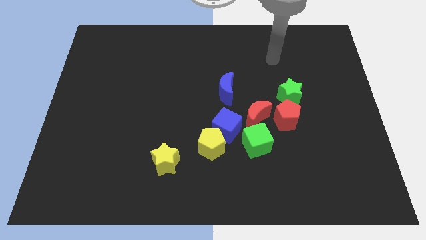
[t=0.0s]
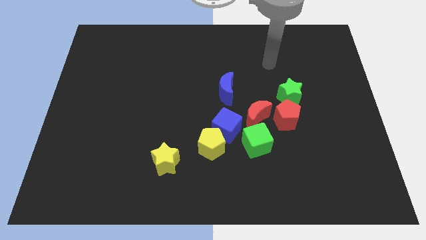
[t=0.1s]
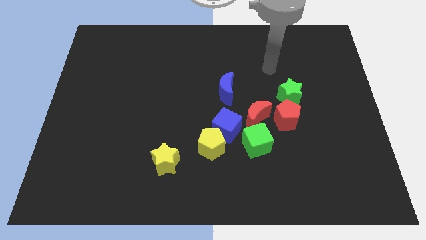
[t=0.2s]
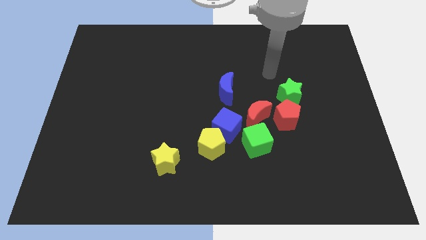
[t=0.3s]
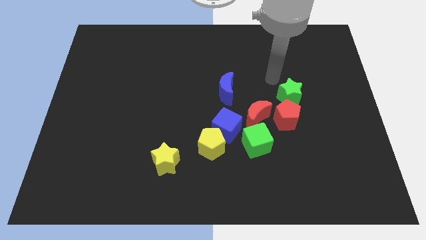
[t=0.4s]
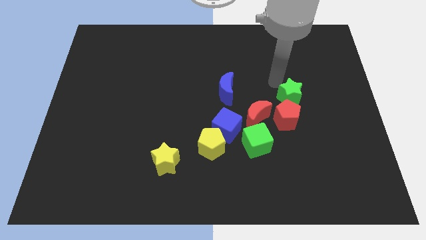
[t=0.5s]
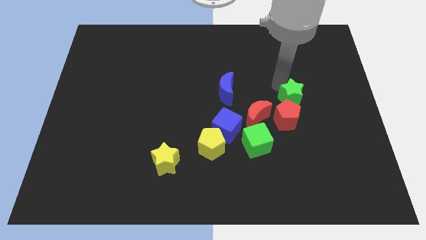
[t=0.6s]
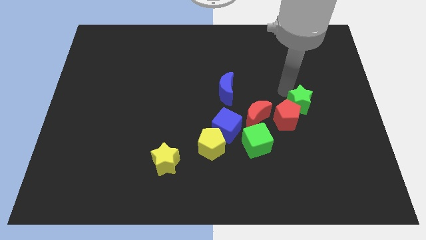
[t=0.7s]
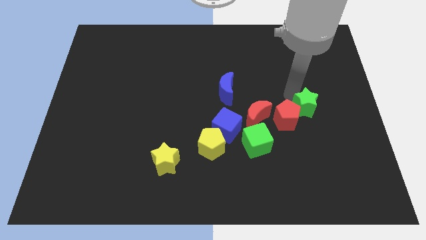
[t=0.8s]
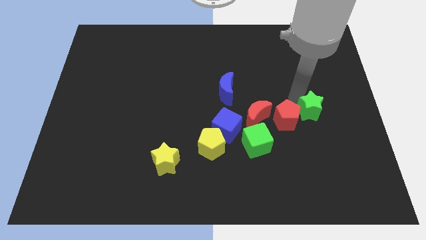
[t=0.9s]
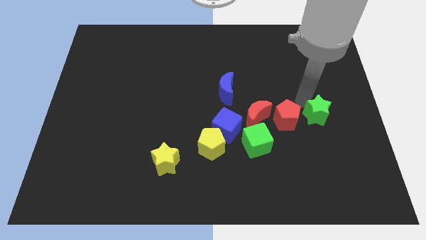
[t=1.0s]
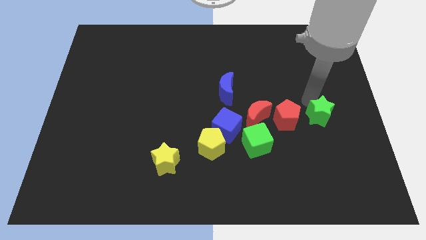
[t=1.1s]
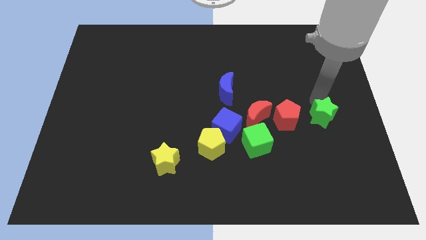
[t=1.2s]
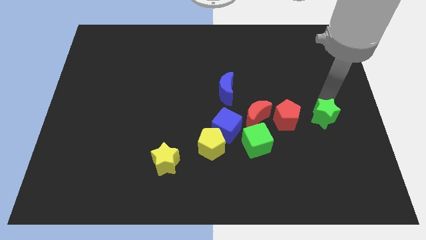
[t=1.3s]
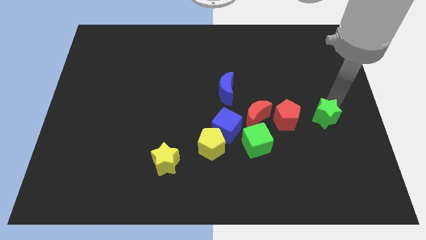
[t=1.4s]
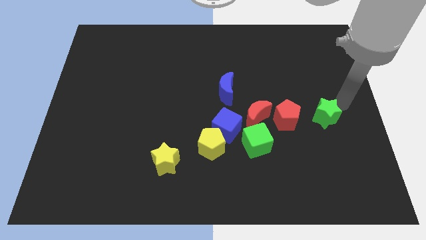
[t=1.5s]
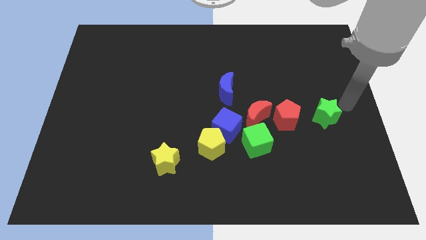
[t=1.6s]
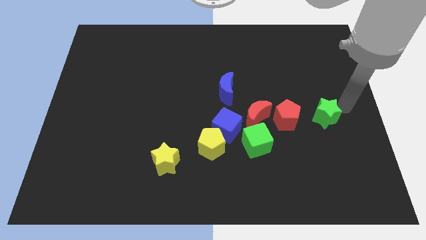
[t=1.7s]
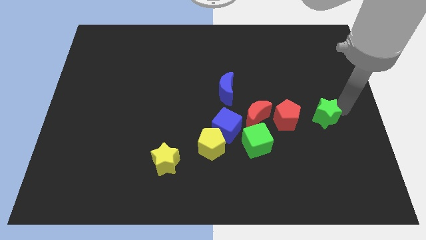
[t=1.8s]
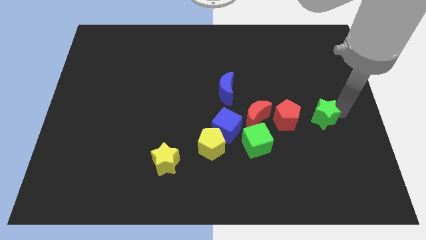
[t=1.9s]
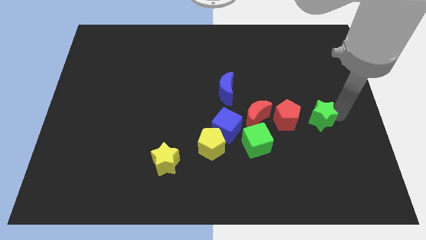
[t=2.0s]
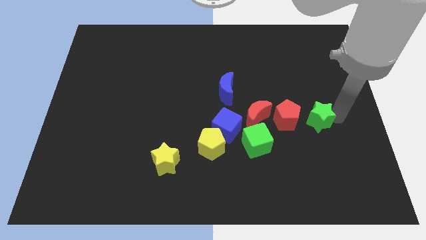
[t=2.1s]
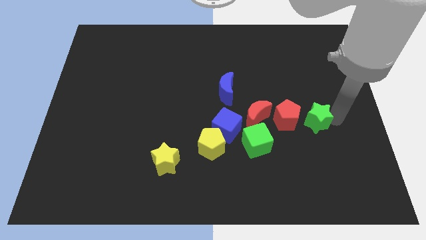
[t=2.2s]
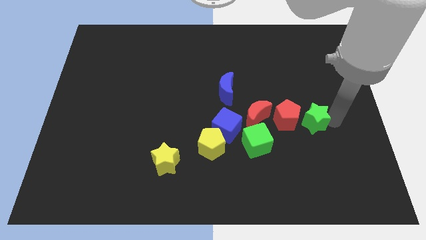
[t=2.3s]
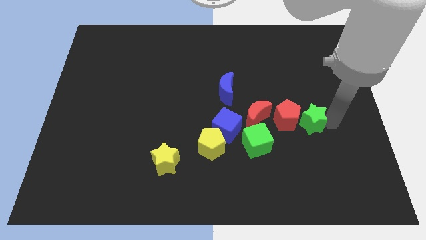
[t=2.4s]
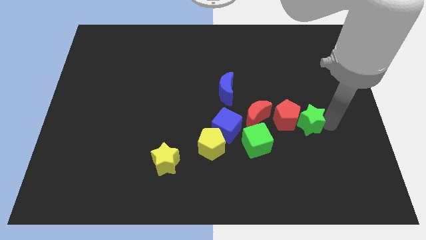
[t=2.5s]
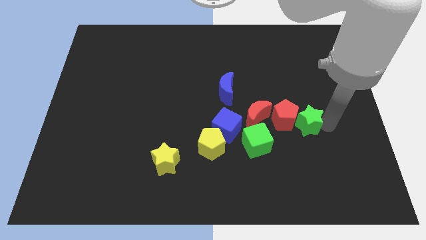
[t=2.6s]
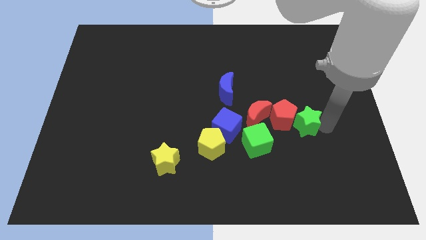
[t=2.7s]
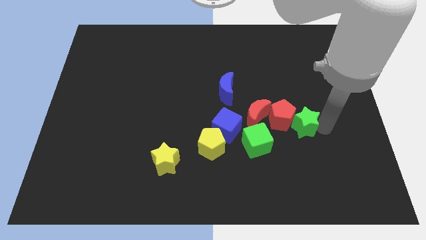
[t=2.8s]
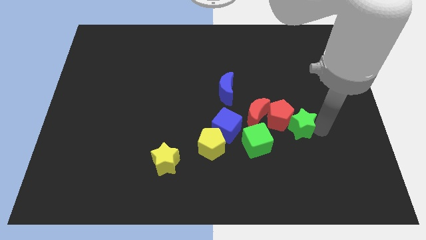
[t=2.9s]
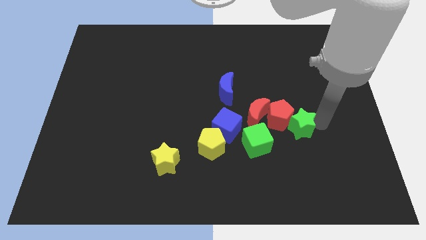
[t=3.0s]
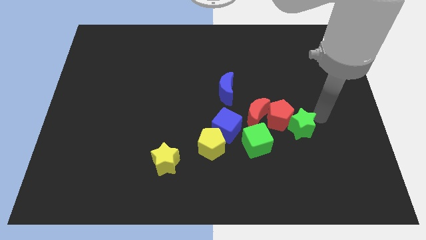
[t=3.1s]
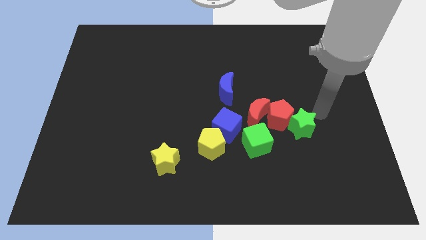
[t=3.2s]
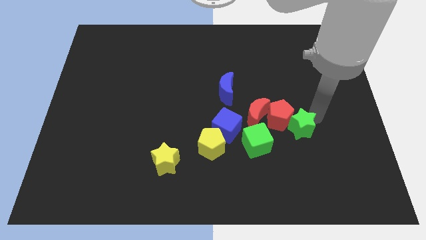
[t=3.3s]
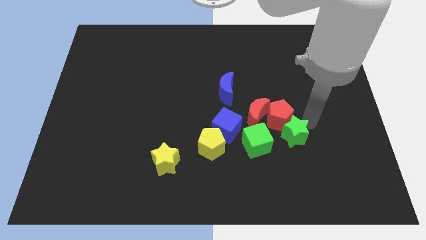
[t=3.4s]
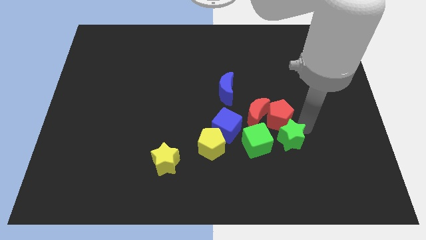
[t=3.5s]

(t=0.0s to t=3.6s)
slightly move the green star down and left diagonally

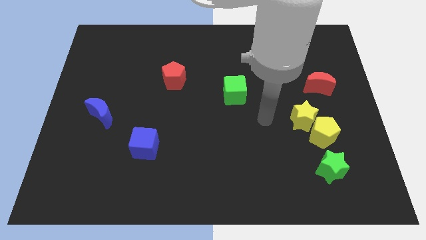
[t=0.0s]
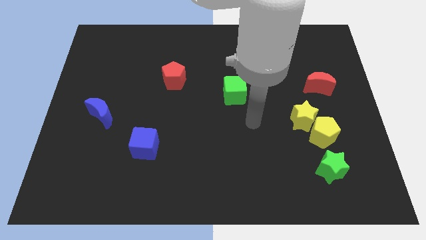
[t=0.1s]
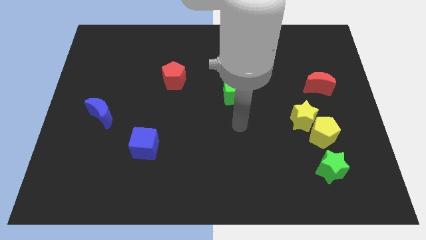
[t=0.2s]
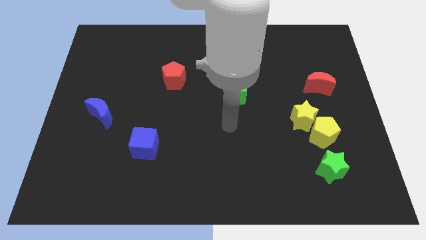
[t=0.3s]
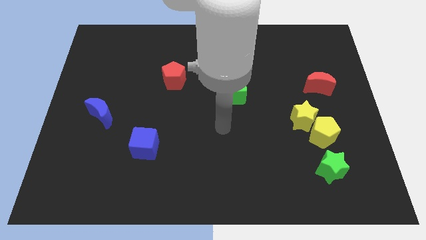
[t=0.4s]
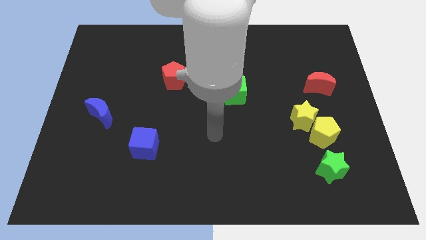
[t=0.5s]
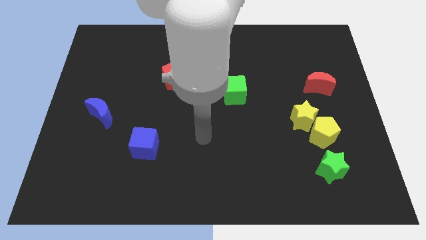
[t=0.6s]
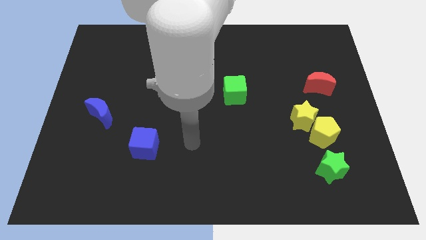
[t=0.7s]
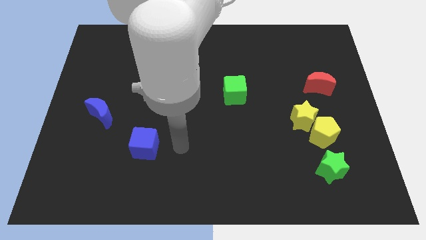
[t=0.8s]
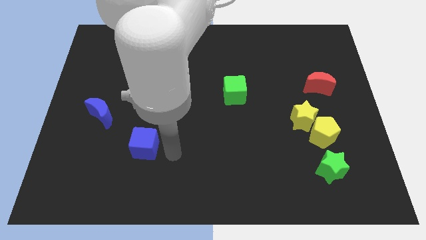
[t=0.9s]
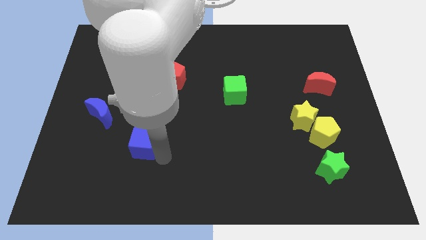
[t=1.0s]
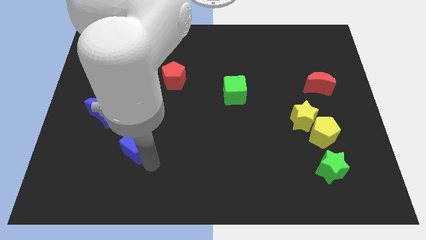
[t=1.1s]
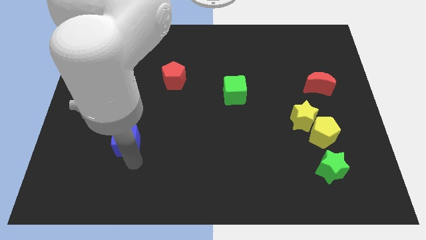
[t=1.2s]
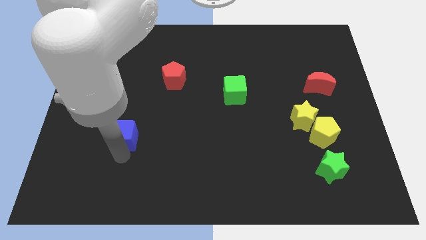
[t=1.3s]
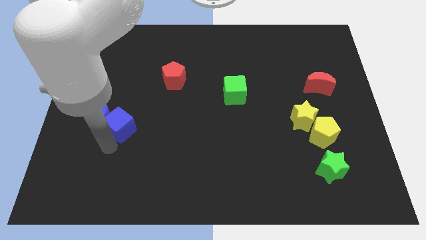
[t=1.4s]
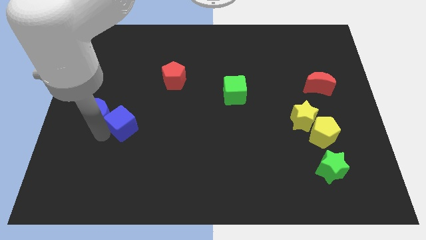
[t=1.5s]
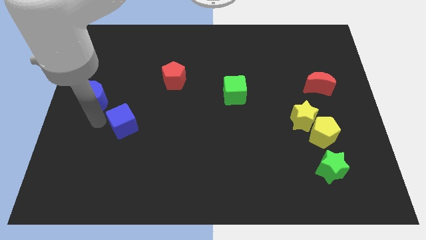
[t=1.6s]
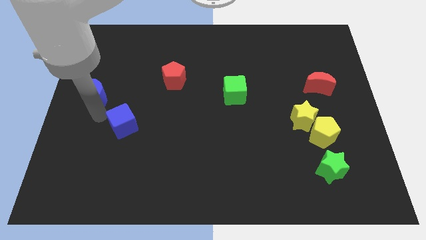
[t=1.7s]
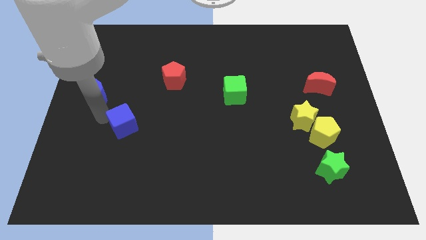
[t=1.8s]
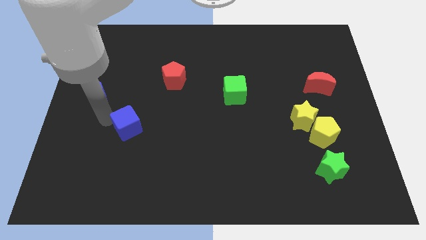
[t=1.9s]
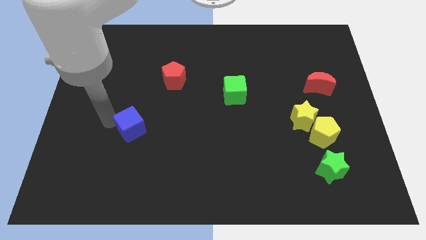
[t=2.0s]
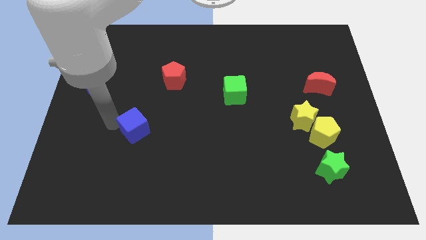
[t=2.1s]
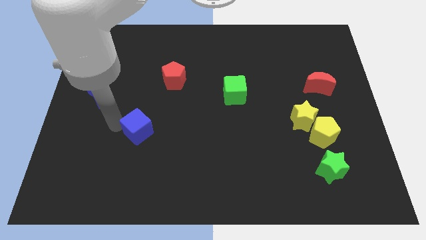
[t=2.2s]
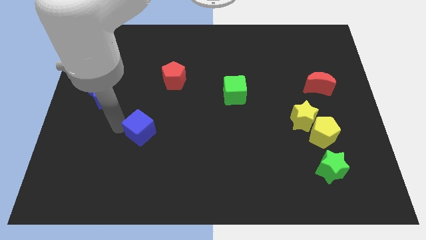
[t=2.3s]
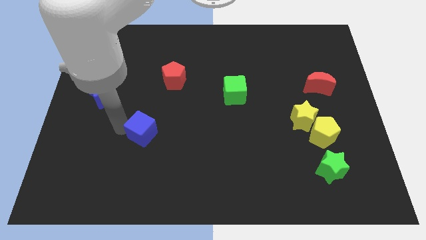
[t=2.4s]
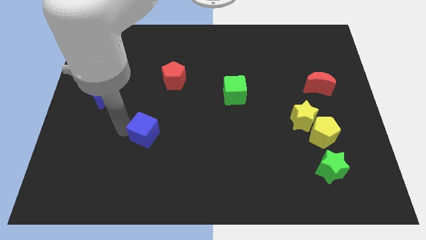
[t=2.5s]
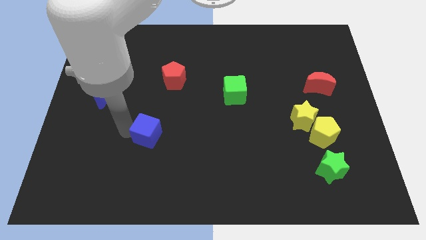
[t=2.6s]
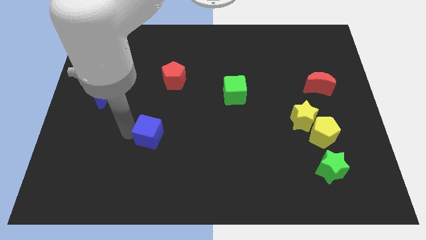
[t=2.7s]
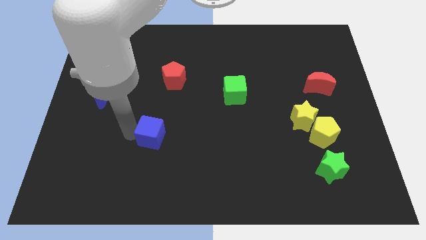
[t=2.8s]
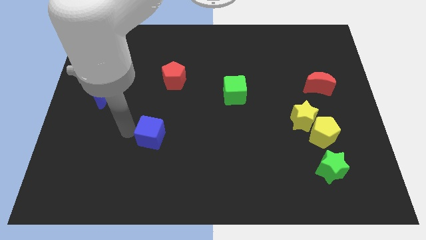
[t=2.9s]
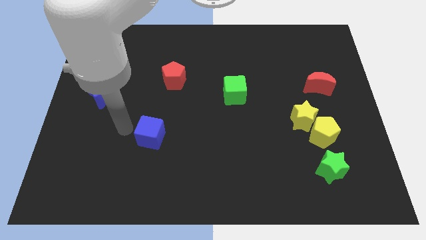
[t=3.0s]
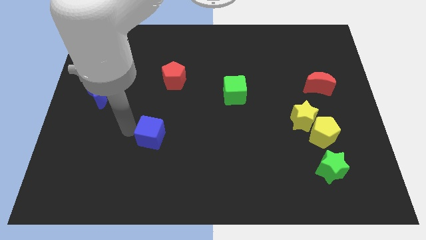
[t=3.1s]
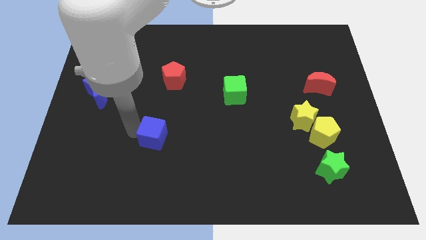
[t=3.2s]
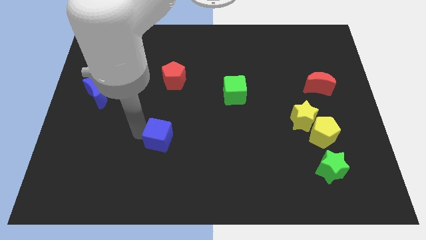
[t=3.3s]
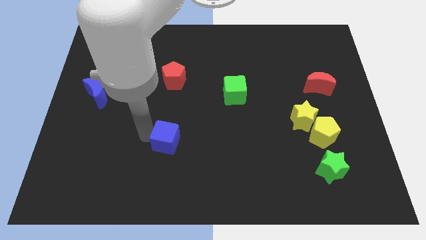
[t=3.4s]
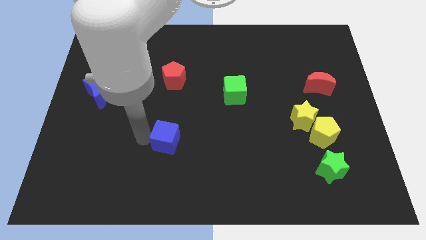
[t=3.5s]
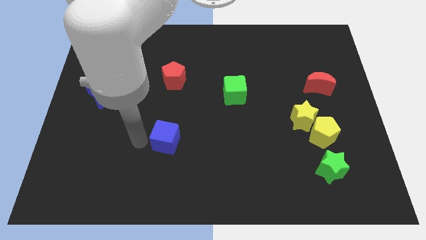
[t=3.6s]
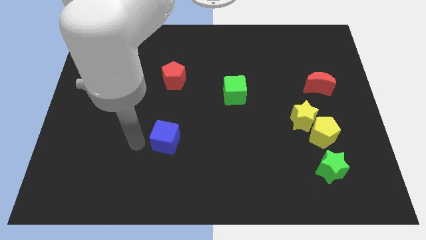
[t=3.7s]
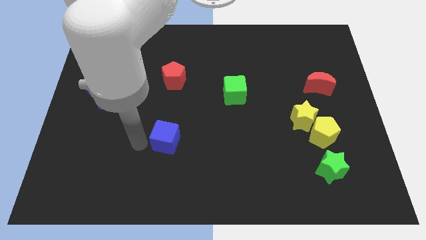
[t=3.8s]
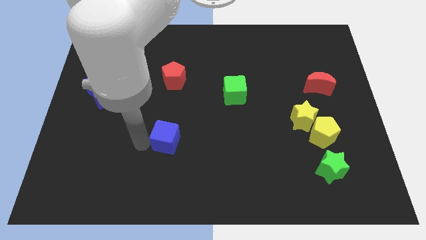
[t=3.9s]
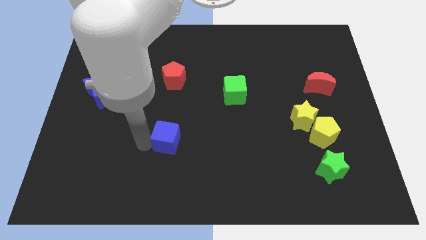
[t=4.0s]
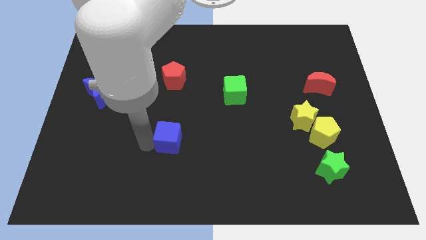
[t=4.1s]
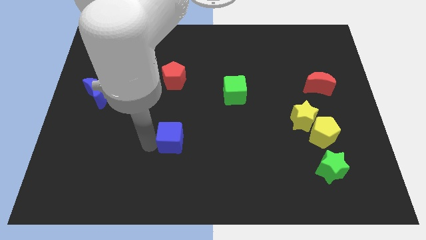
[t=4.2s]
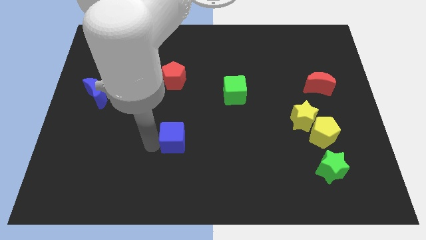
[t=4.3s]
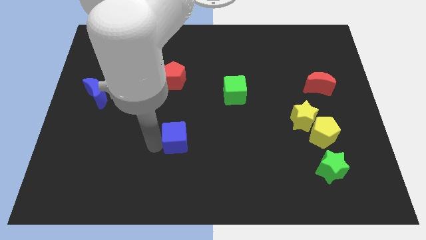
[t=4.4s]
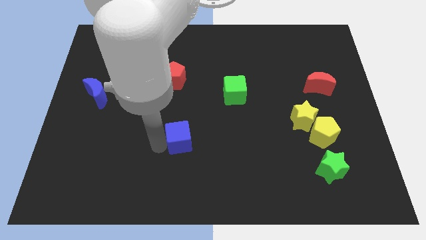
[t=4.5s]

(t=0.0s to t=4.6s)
move the blue cube slightly right

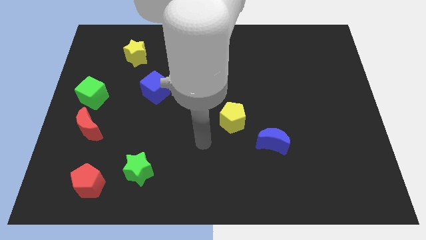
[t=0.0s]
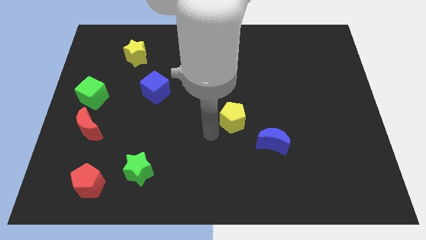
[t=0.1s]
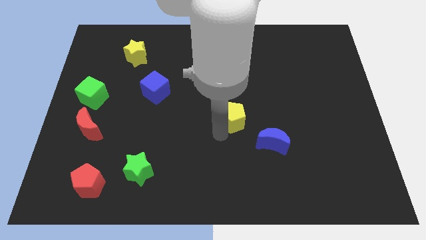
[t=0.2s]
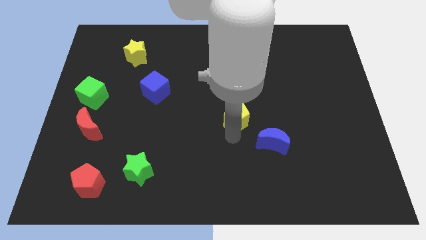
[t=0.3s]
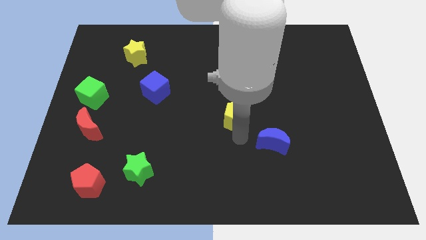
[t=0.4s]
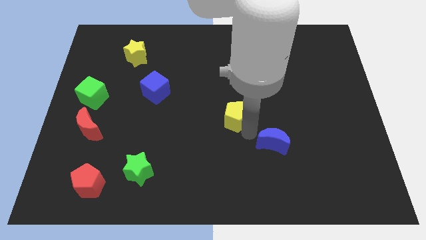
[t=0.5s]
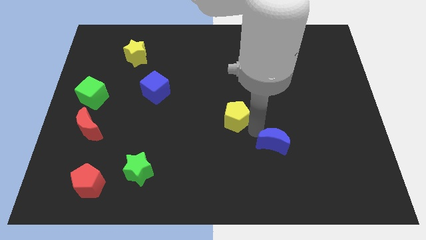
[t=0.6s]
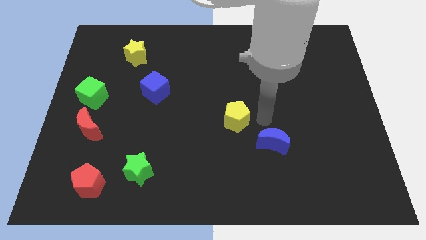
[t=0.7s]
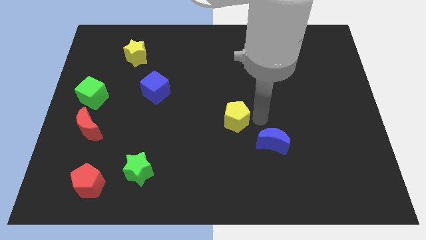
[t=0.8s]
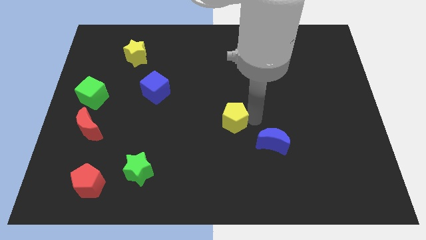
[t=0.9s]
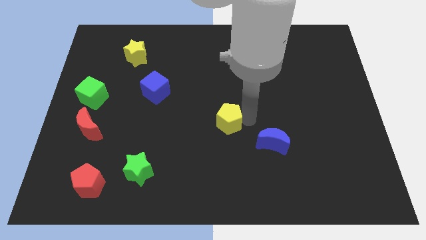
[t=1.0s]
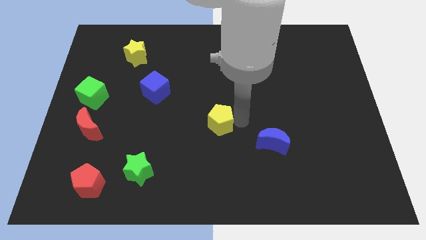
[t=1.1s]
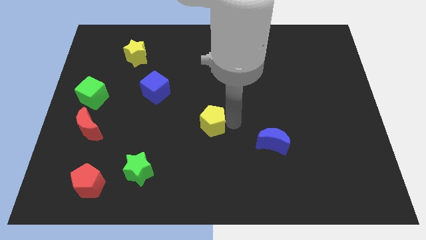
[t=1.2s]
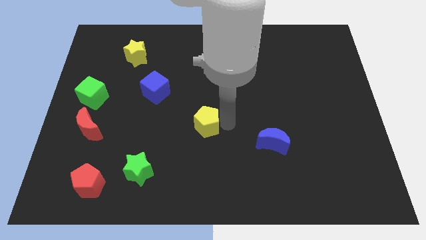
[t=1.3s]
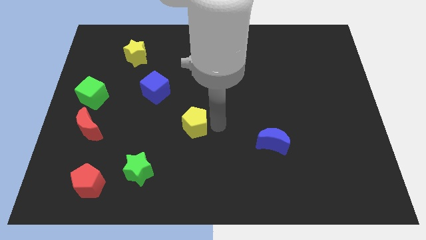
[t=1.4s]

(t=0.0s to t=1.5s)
move the yellow pentagon left a bit
